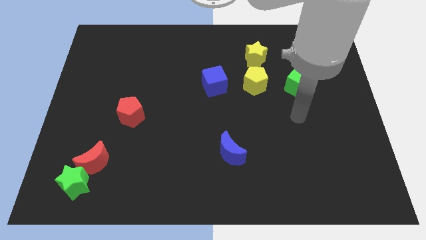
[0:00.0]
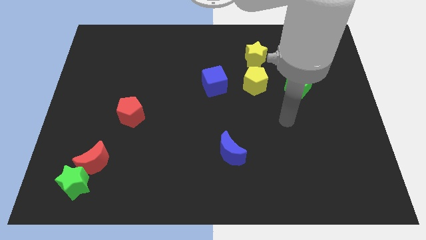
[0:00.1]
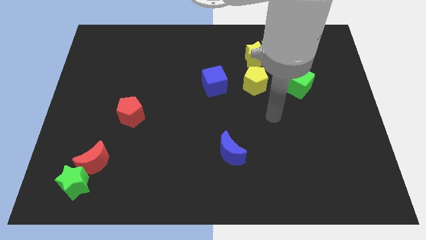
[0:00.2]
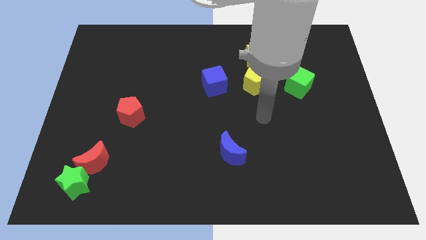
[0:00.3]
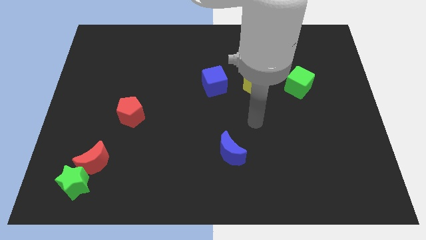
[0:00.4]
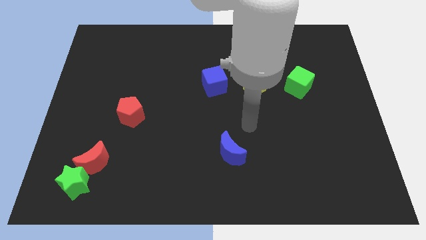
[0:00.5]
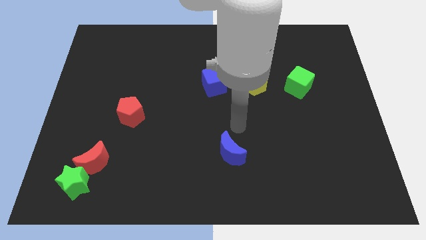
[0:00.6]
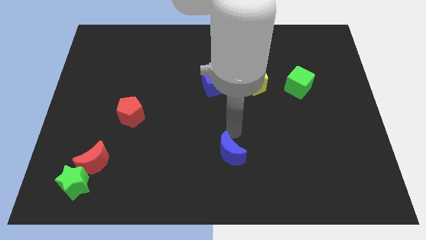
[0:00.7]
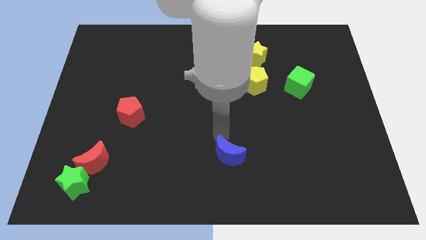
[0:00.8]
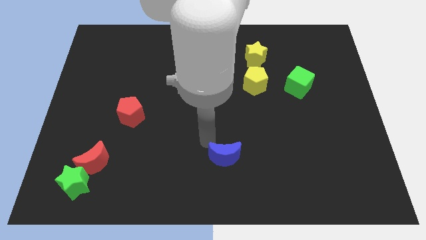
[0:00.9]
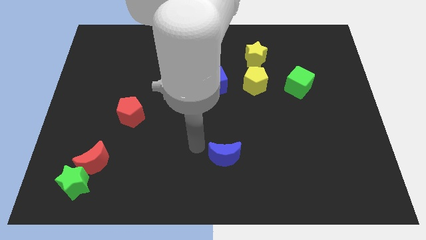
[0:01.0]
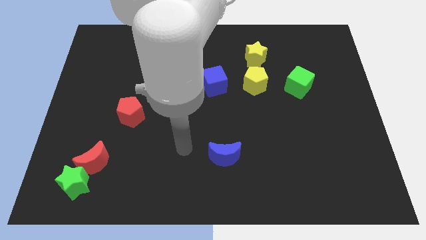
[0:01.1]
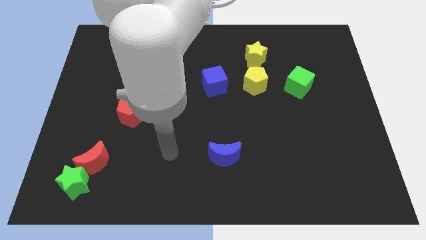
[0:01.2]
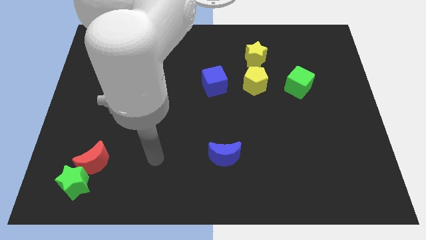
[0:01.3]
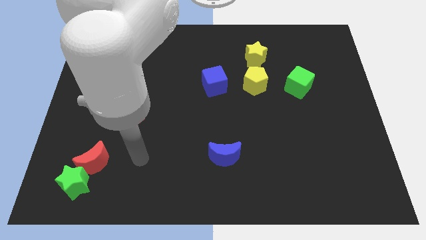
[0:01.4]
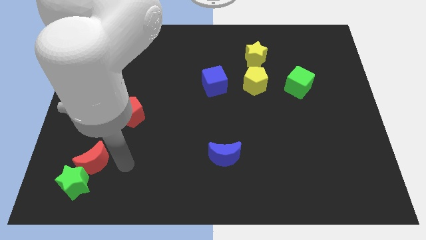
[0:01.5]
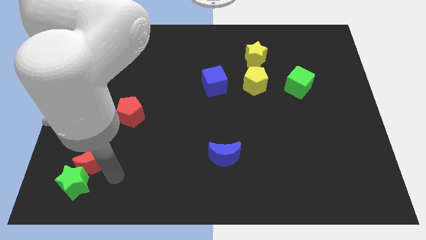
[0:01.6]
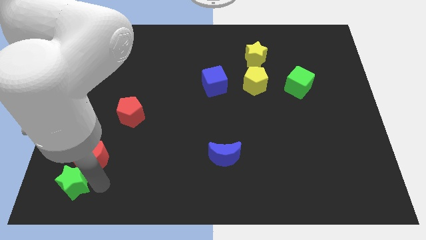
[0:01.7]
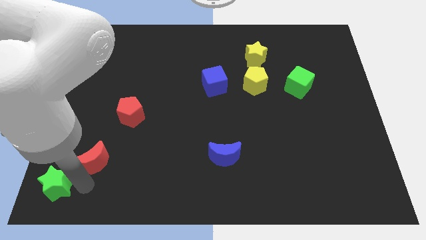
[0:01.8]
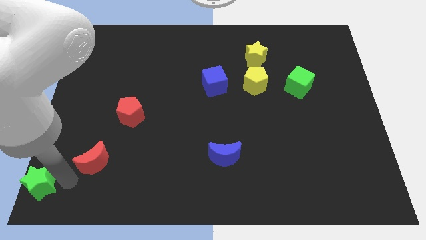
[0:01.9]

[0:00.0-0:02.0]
pull the red moon apart from the green star

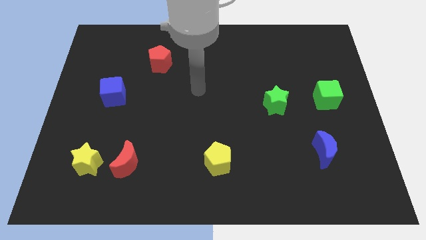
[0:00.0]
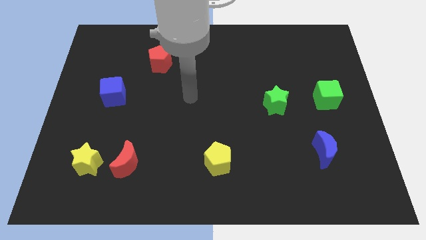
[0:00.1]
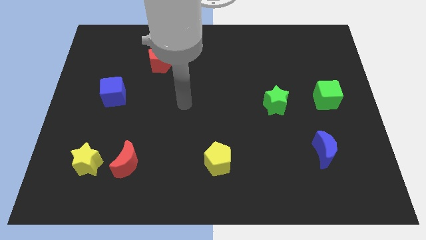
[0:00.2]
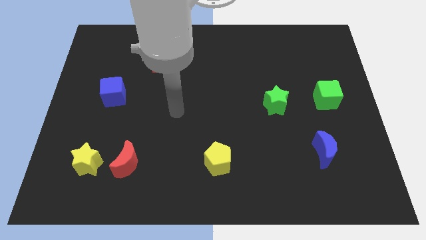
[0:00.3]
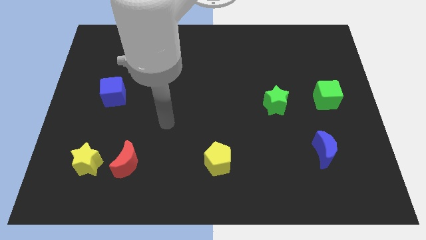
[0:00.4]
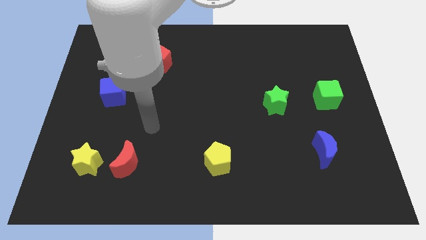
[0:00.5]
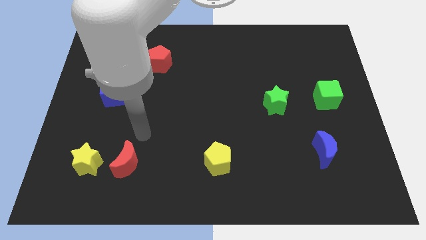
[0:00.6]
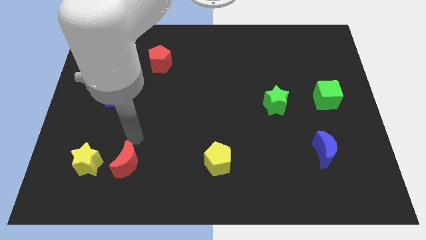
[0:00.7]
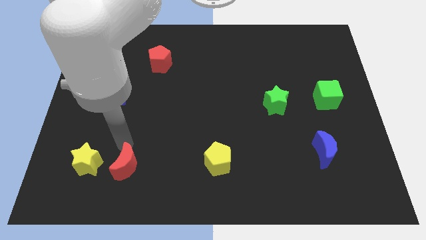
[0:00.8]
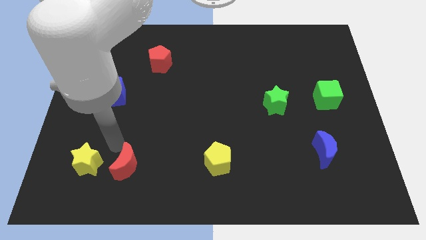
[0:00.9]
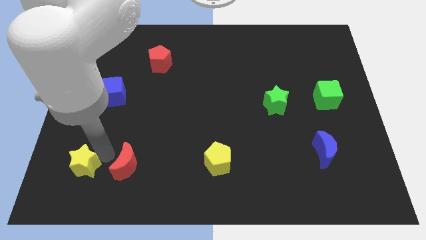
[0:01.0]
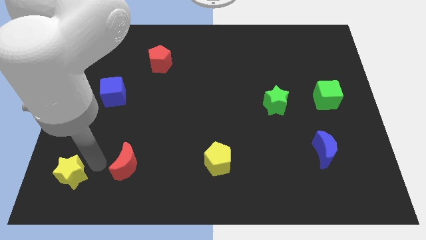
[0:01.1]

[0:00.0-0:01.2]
separate the red moon from the yellow star

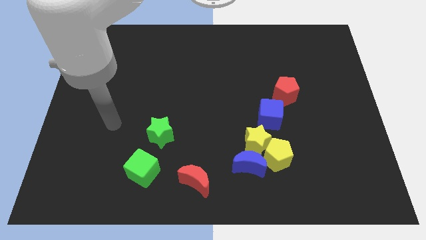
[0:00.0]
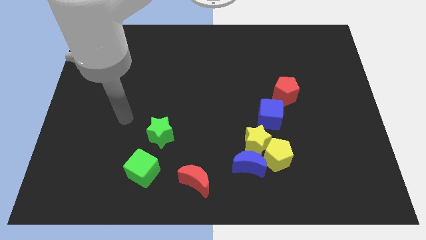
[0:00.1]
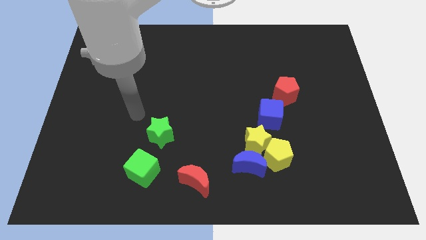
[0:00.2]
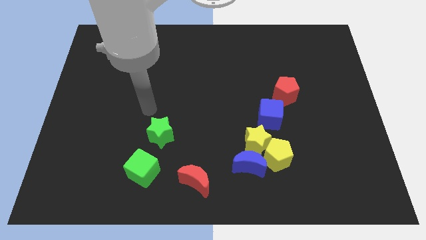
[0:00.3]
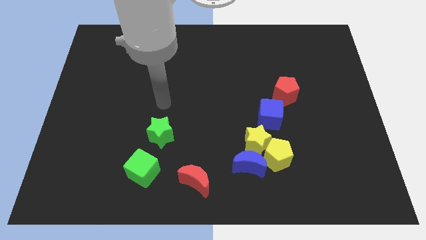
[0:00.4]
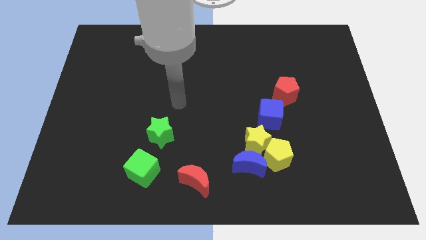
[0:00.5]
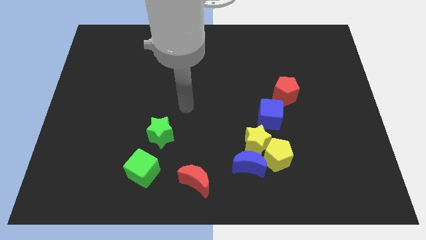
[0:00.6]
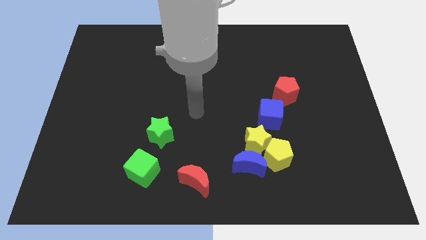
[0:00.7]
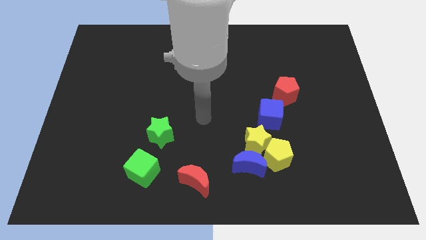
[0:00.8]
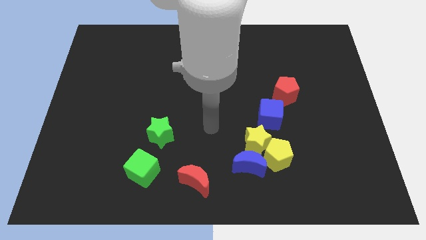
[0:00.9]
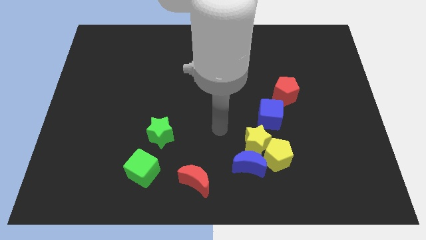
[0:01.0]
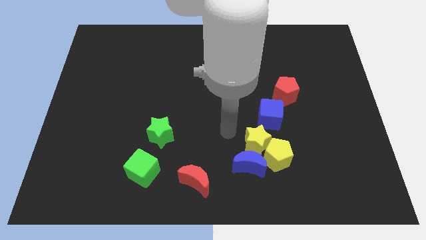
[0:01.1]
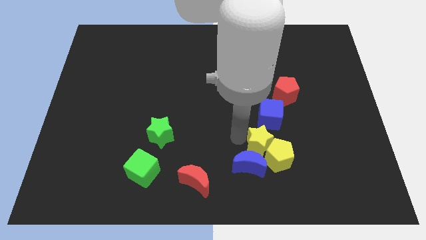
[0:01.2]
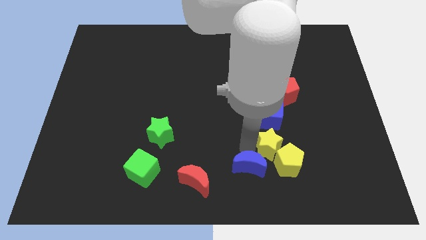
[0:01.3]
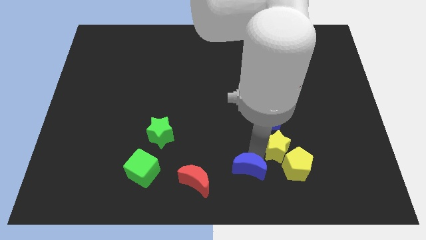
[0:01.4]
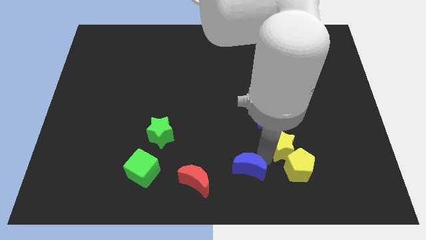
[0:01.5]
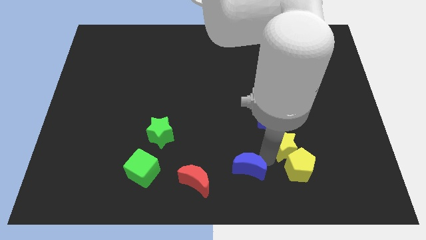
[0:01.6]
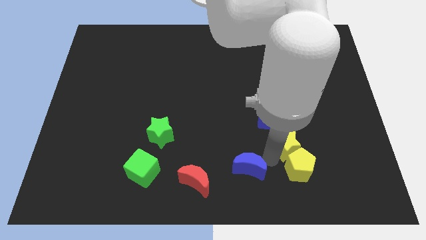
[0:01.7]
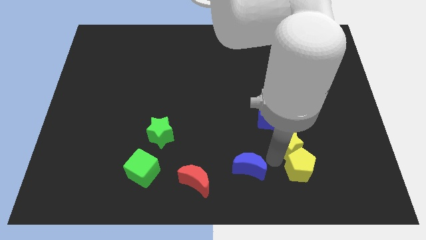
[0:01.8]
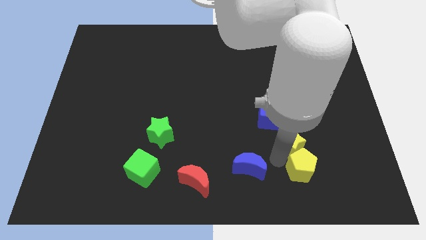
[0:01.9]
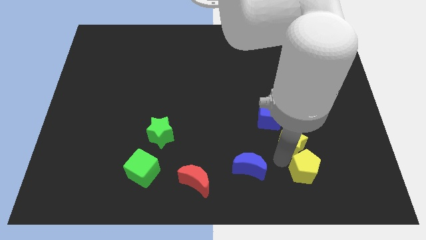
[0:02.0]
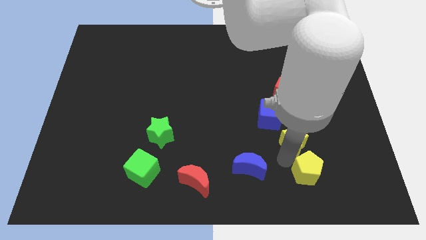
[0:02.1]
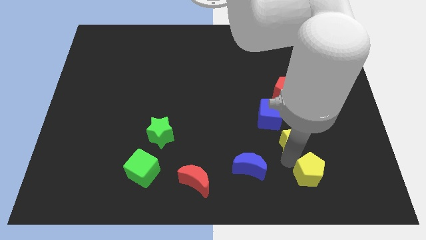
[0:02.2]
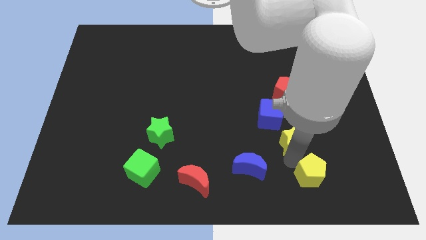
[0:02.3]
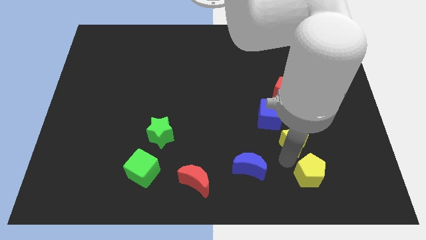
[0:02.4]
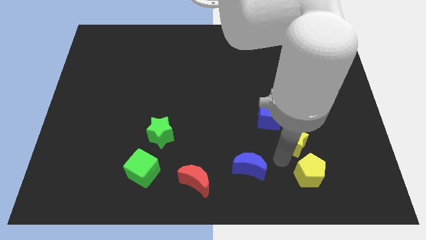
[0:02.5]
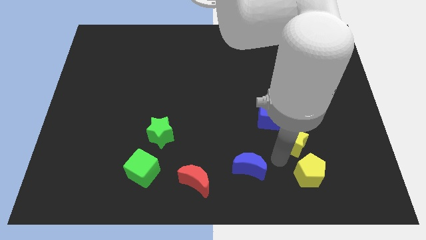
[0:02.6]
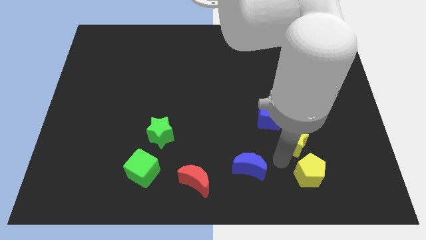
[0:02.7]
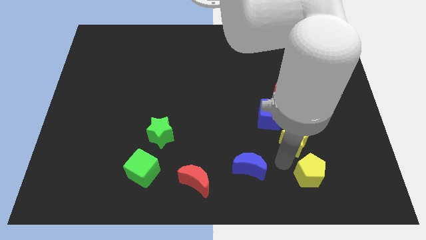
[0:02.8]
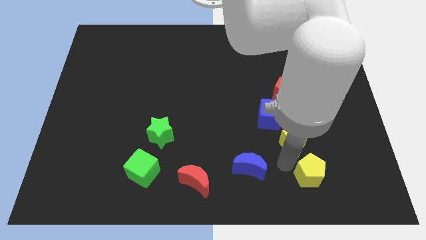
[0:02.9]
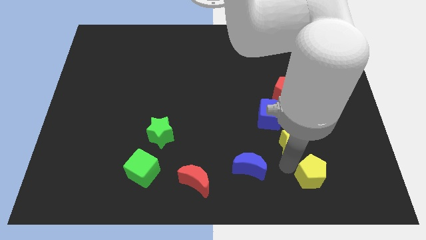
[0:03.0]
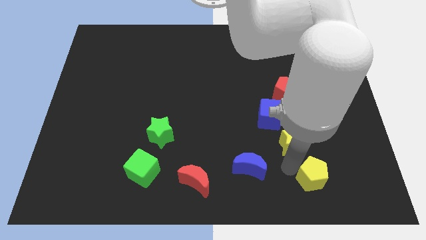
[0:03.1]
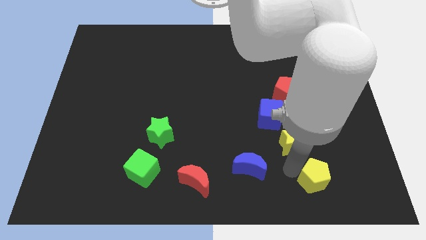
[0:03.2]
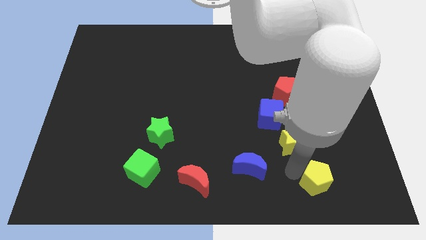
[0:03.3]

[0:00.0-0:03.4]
separate the yellow pentagon from the yellow star and blue moon

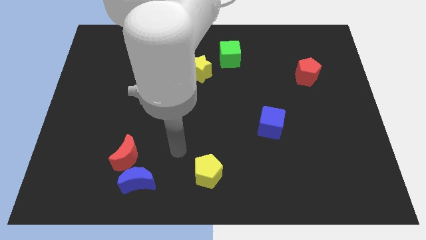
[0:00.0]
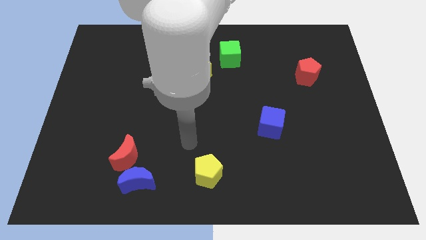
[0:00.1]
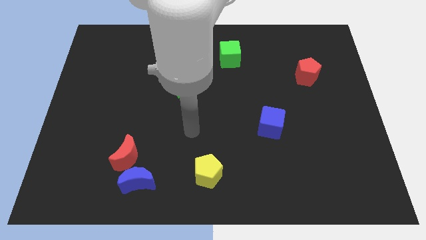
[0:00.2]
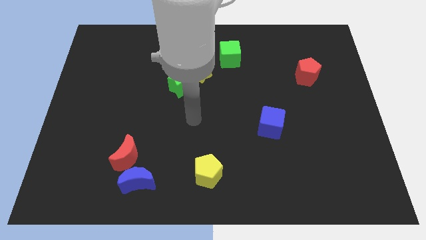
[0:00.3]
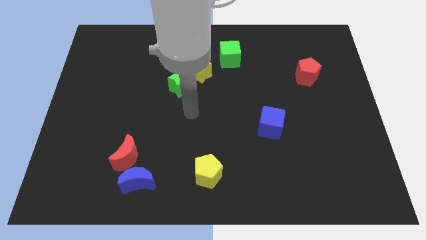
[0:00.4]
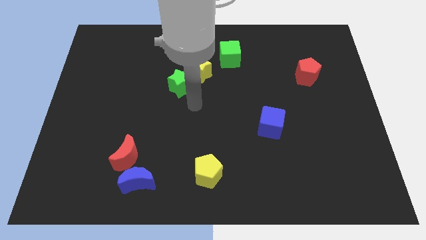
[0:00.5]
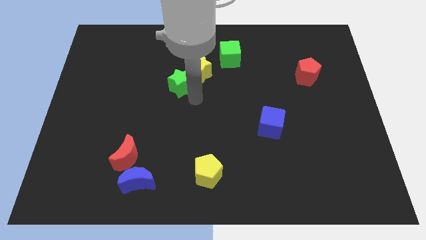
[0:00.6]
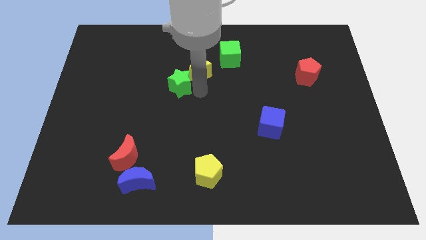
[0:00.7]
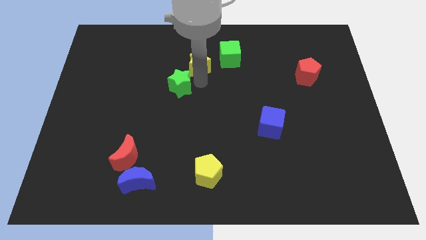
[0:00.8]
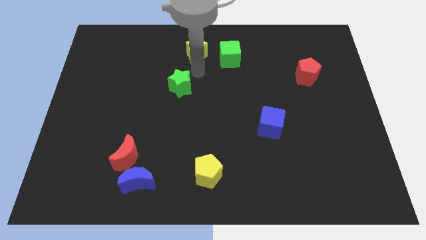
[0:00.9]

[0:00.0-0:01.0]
move the green star away from the yellow star

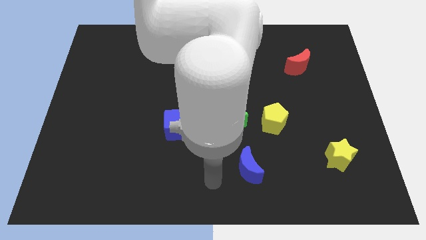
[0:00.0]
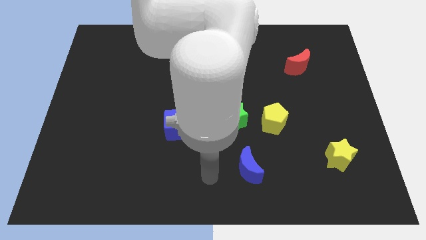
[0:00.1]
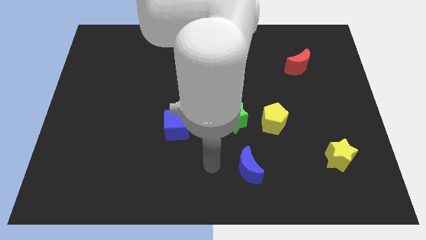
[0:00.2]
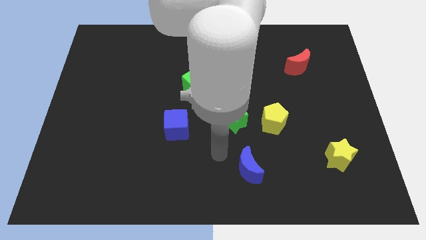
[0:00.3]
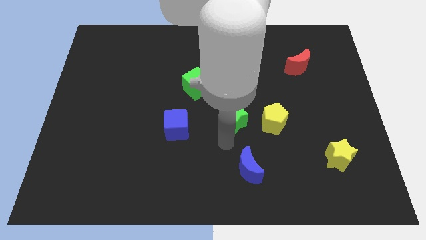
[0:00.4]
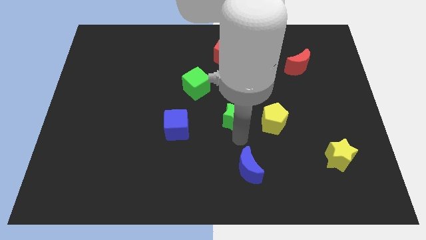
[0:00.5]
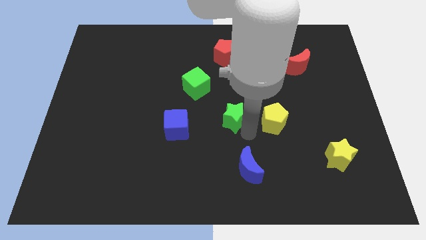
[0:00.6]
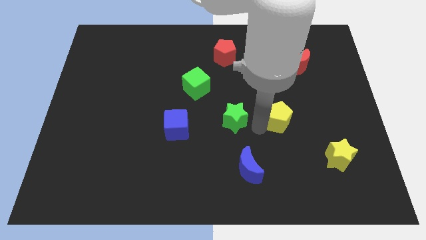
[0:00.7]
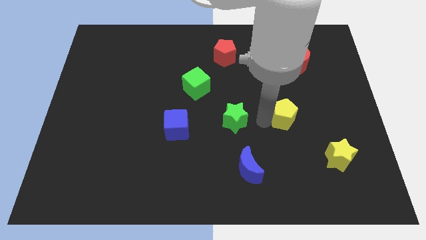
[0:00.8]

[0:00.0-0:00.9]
pull the green star apart from the yellow pentagon

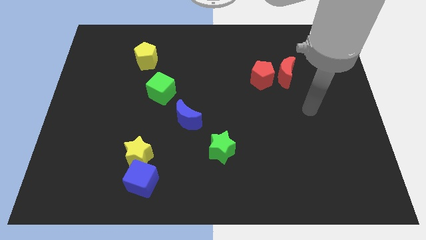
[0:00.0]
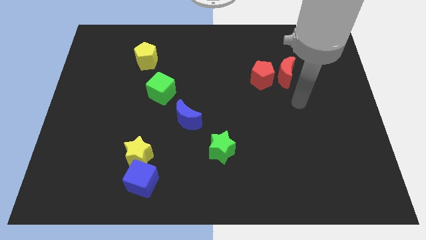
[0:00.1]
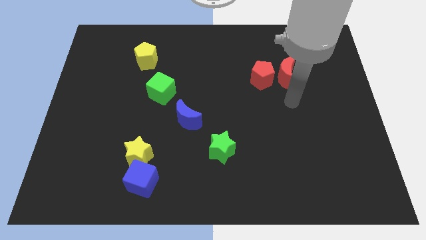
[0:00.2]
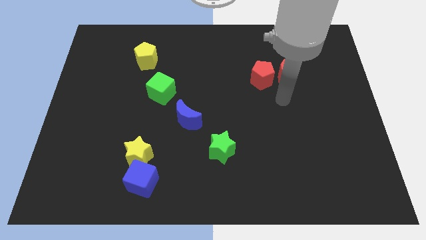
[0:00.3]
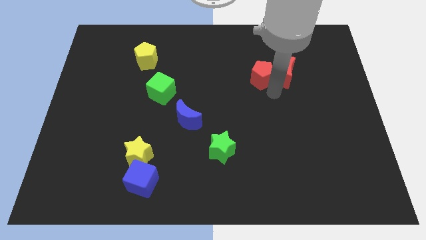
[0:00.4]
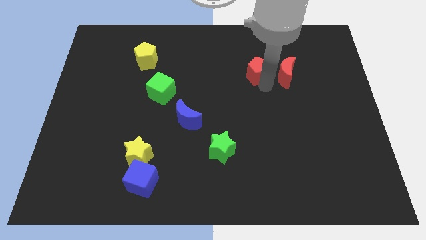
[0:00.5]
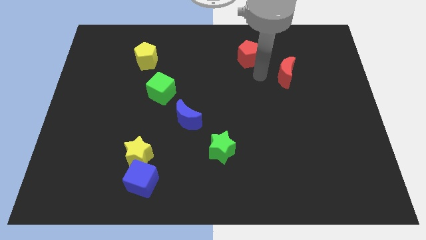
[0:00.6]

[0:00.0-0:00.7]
move the red moon away from the red pentagon
